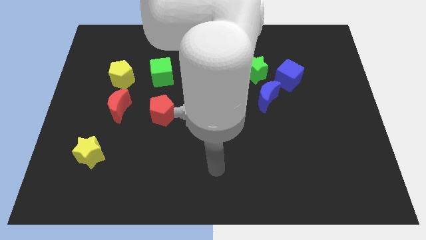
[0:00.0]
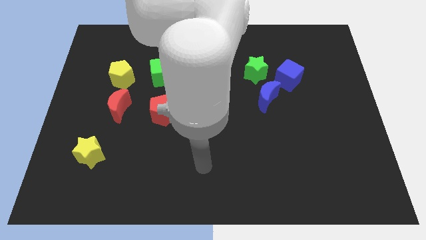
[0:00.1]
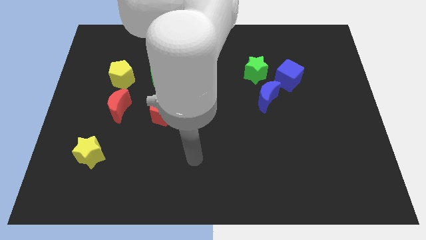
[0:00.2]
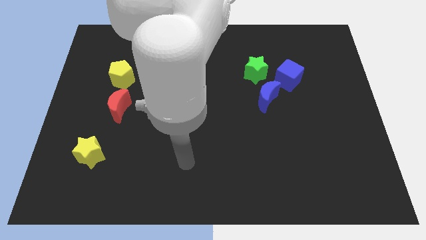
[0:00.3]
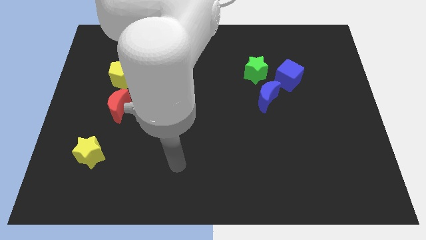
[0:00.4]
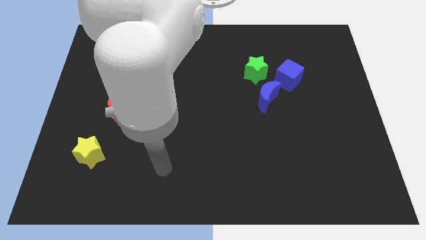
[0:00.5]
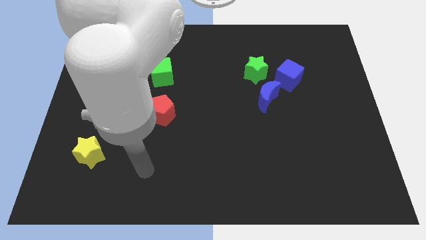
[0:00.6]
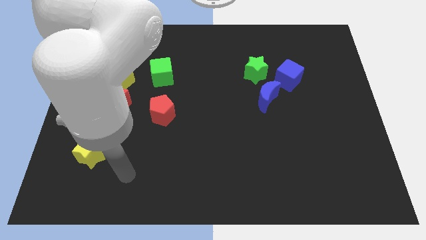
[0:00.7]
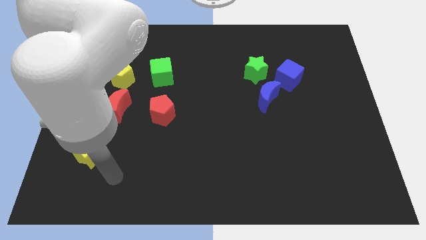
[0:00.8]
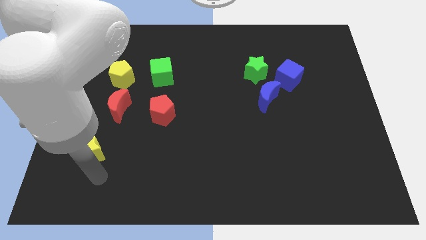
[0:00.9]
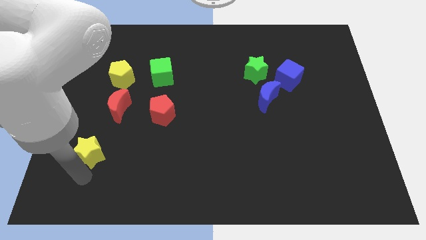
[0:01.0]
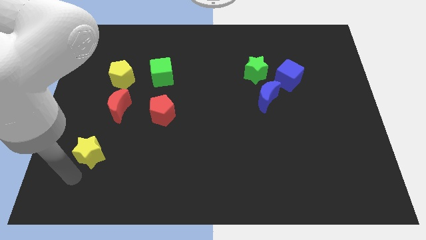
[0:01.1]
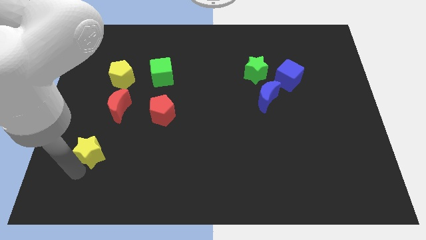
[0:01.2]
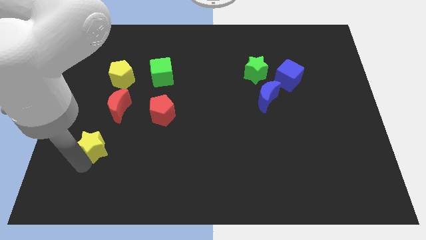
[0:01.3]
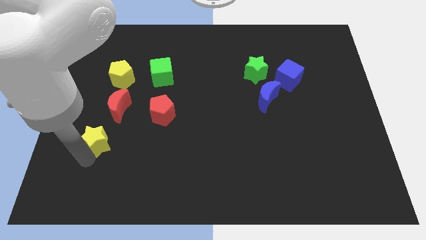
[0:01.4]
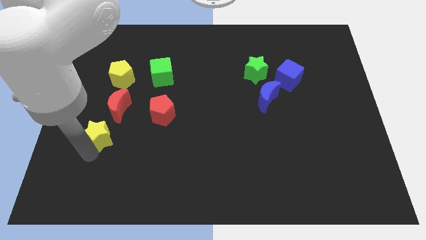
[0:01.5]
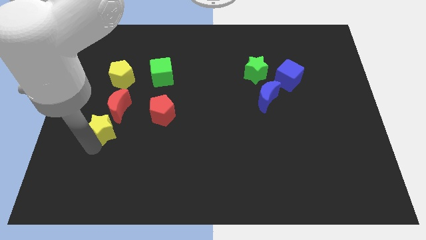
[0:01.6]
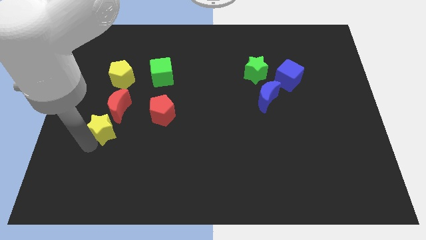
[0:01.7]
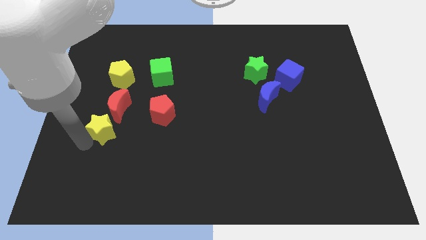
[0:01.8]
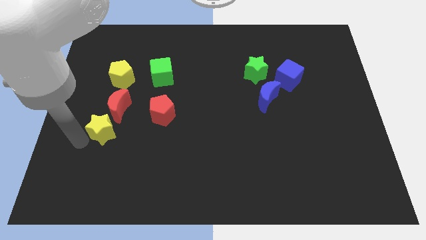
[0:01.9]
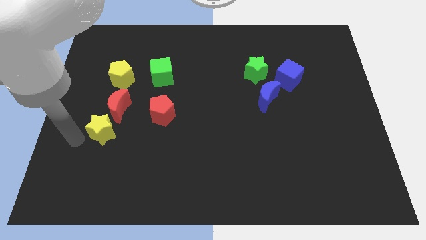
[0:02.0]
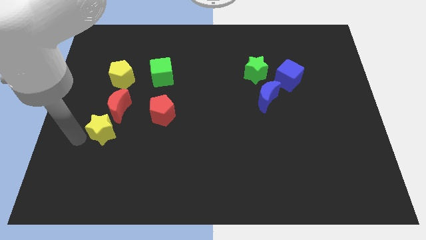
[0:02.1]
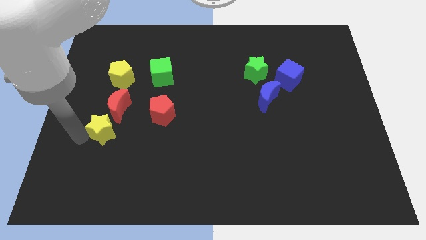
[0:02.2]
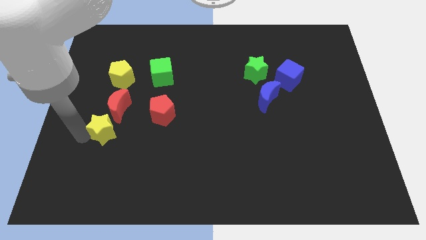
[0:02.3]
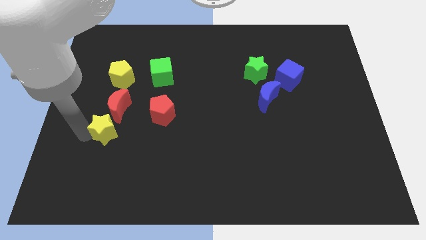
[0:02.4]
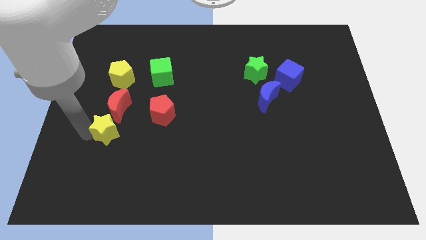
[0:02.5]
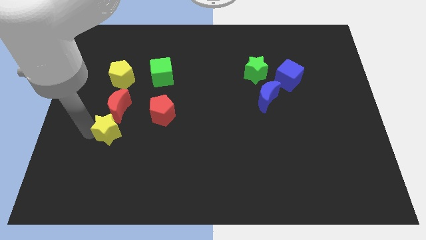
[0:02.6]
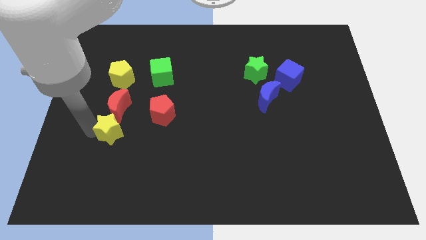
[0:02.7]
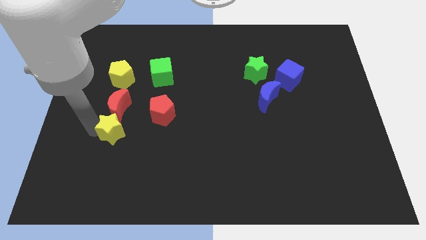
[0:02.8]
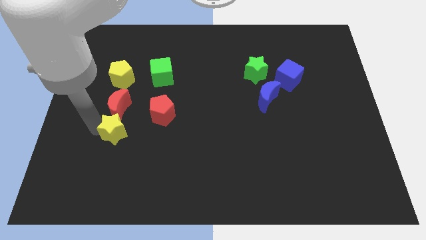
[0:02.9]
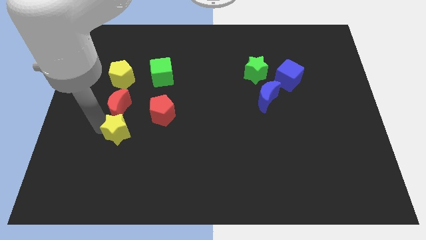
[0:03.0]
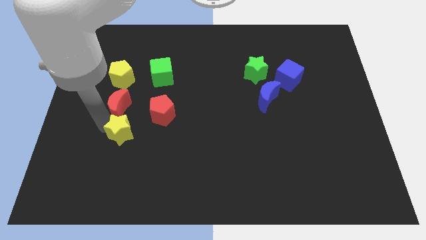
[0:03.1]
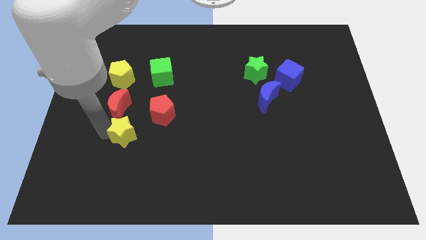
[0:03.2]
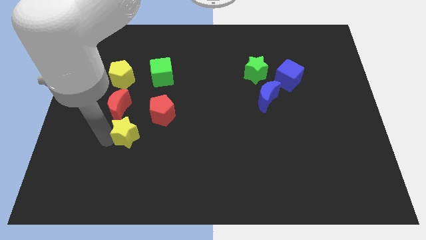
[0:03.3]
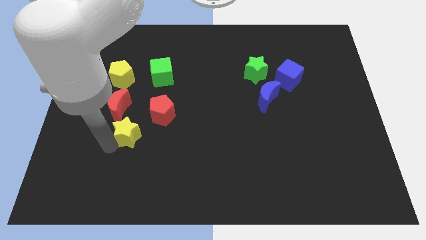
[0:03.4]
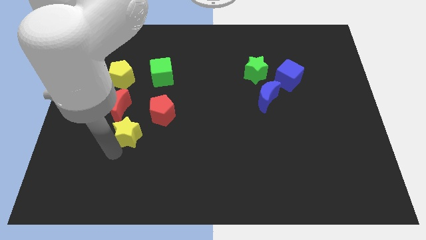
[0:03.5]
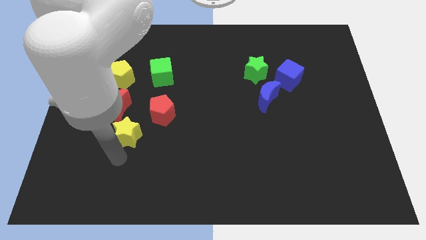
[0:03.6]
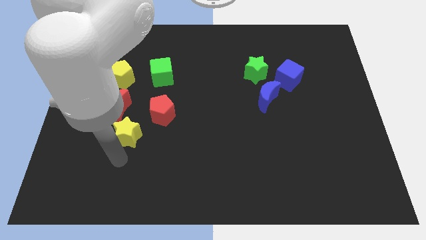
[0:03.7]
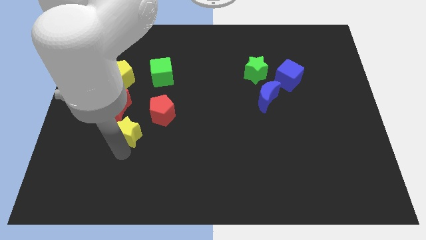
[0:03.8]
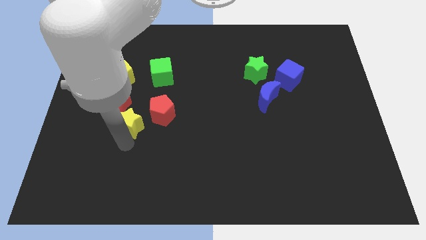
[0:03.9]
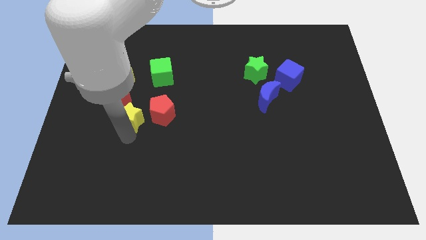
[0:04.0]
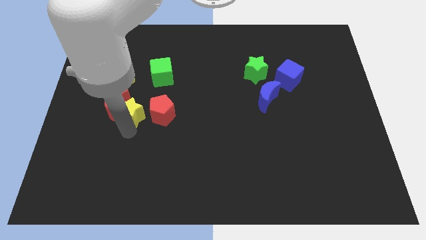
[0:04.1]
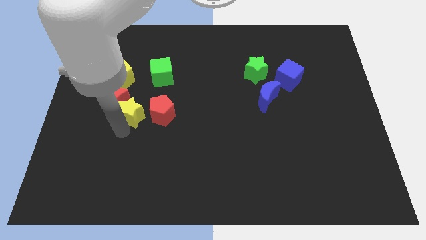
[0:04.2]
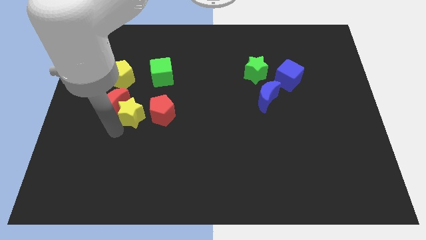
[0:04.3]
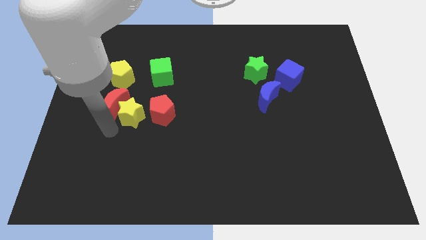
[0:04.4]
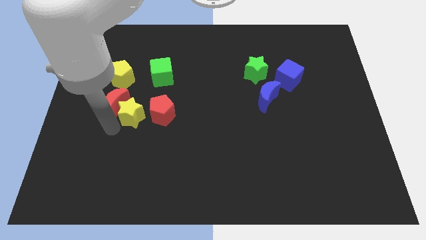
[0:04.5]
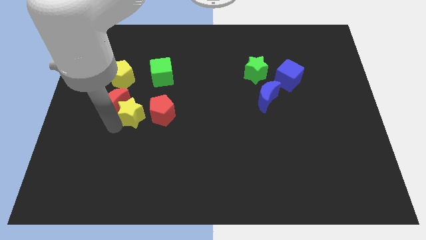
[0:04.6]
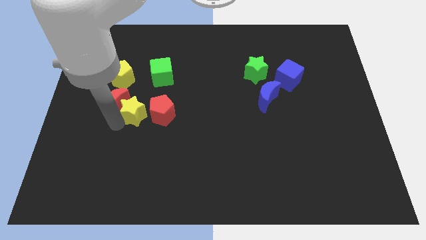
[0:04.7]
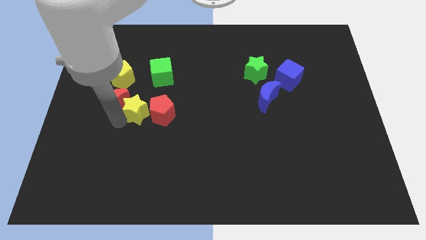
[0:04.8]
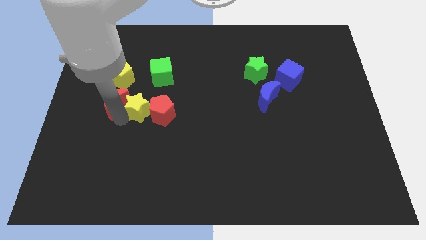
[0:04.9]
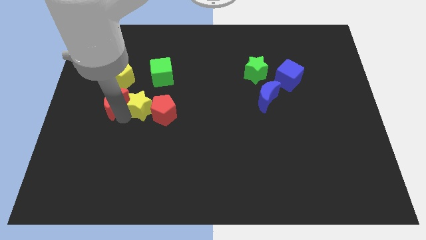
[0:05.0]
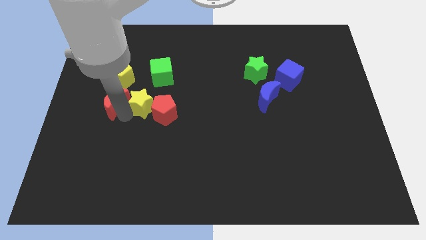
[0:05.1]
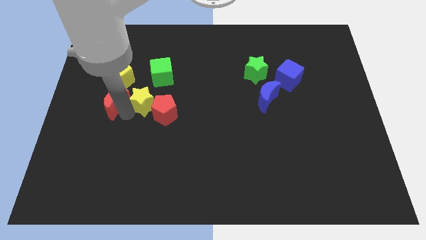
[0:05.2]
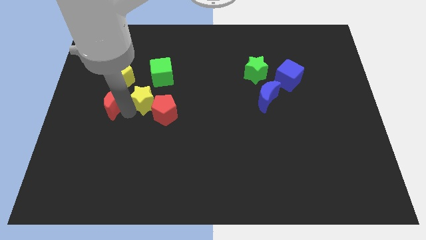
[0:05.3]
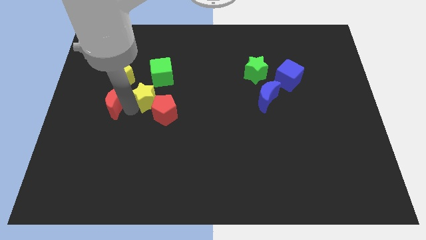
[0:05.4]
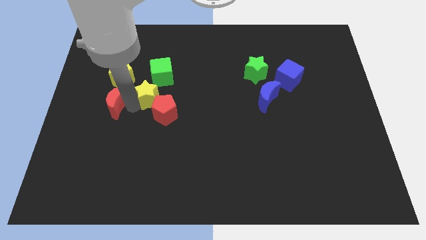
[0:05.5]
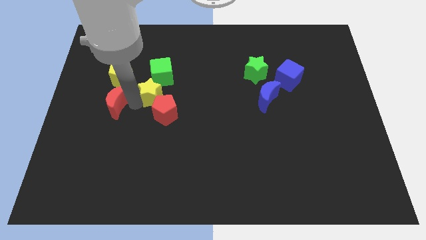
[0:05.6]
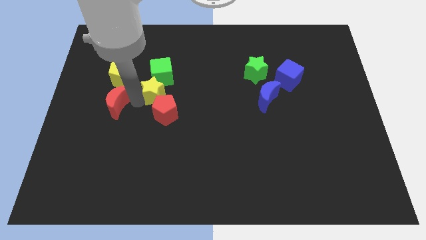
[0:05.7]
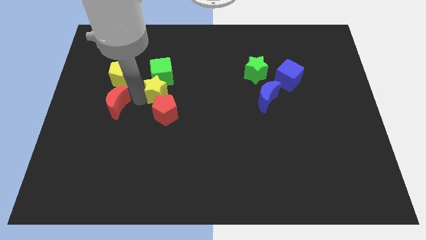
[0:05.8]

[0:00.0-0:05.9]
slide the yellow star to the bottom right side of the green cube

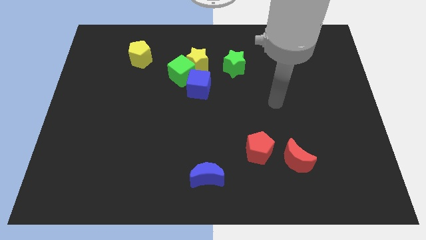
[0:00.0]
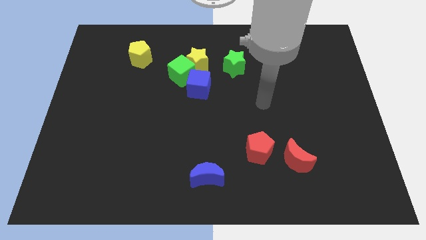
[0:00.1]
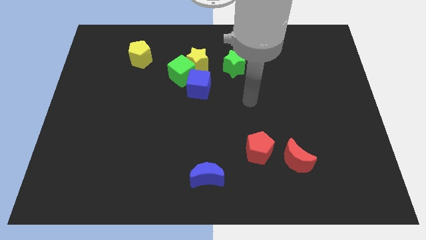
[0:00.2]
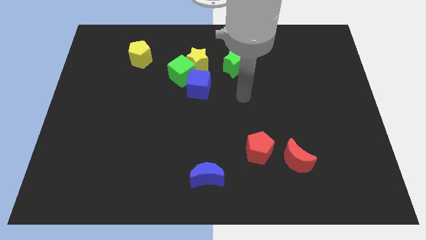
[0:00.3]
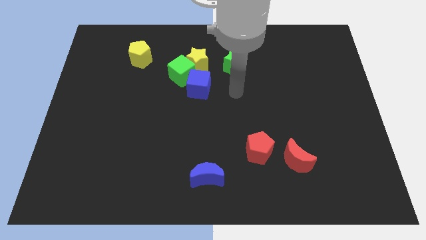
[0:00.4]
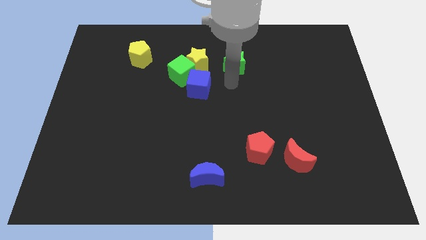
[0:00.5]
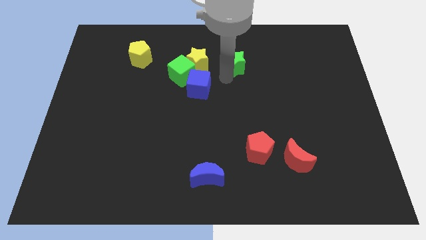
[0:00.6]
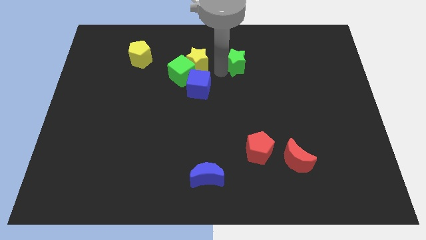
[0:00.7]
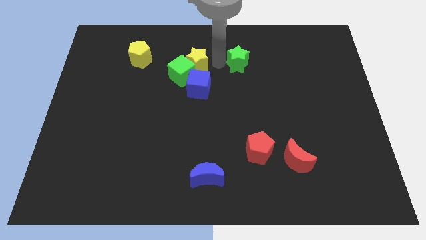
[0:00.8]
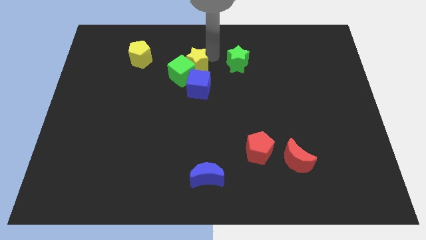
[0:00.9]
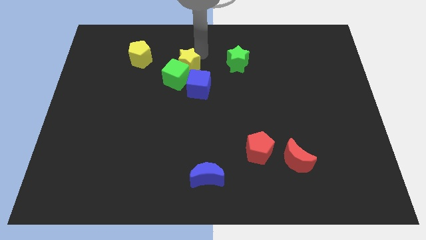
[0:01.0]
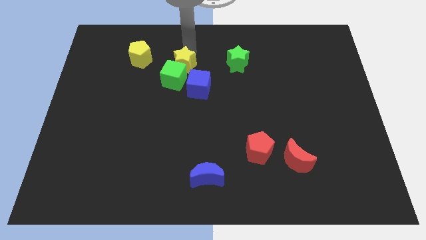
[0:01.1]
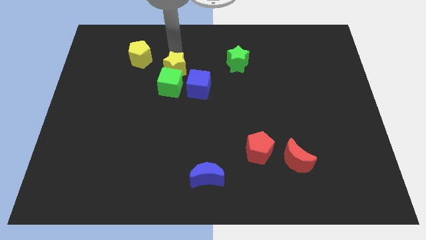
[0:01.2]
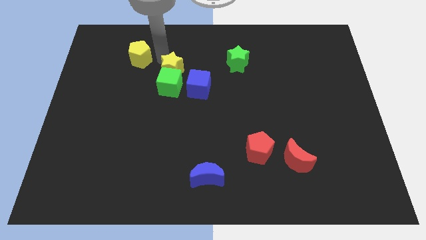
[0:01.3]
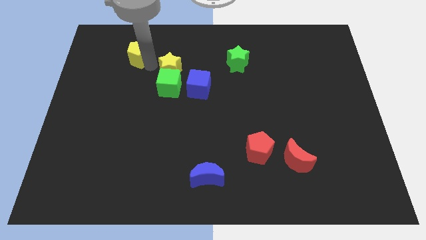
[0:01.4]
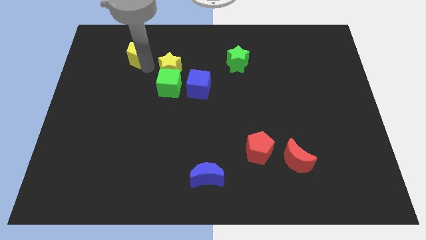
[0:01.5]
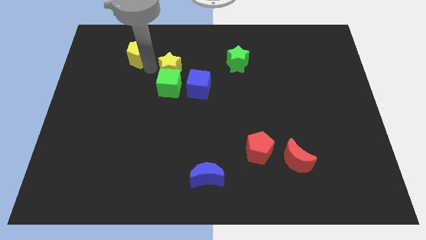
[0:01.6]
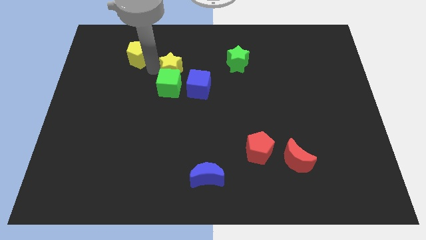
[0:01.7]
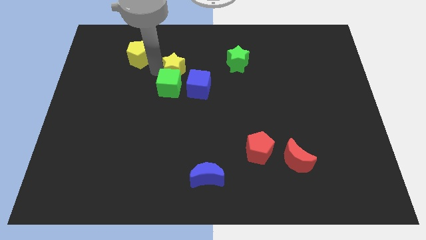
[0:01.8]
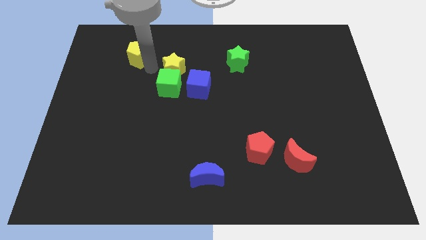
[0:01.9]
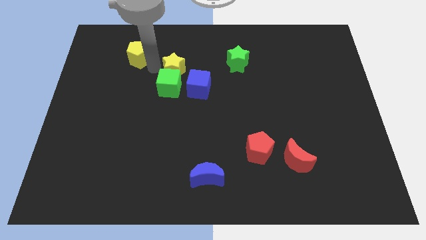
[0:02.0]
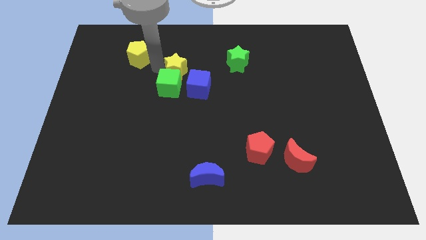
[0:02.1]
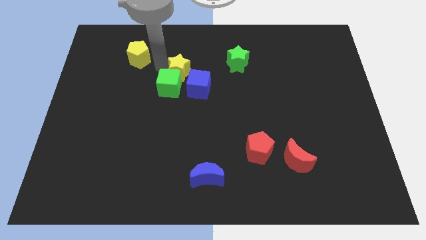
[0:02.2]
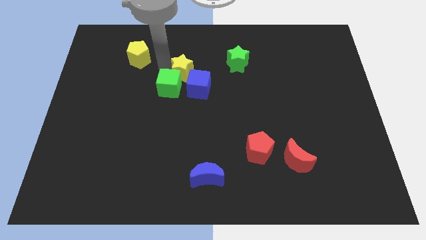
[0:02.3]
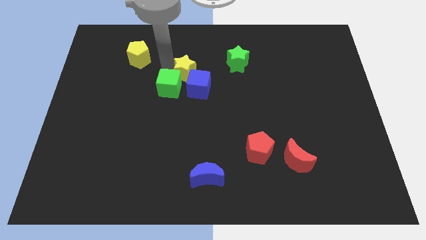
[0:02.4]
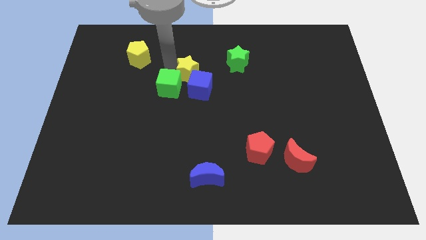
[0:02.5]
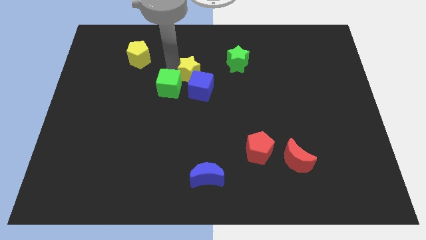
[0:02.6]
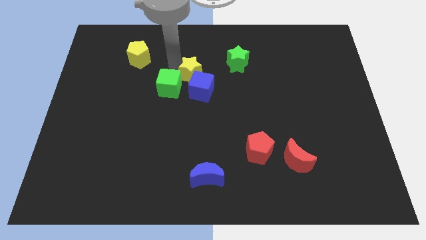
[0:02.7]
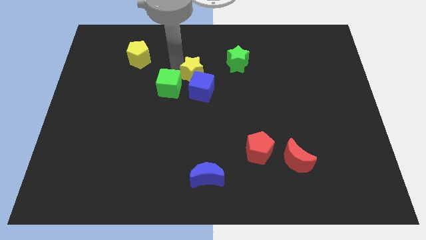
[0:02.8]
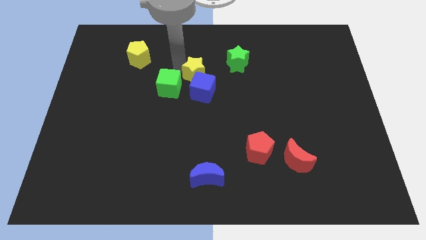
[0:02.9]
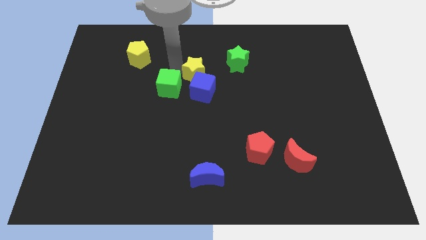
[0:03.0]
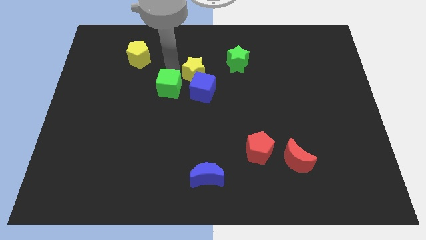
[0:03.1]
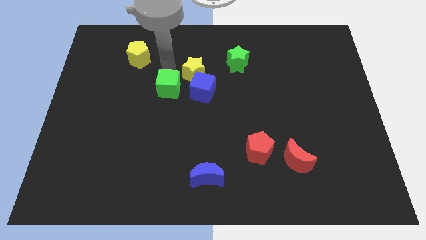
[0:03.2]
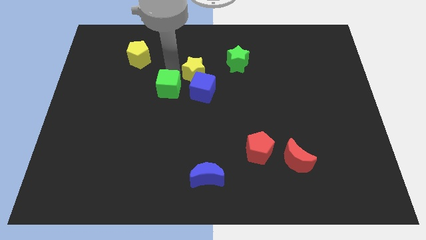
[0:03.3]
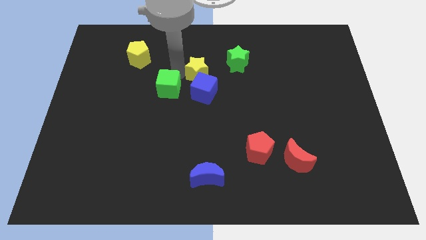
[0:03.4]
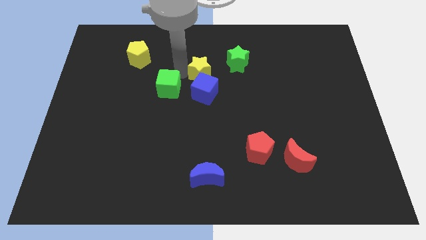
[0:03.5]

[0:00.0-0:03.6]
move the yellow star to the bottom left of the green star
